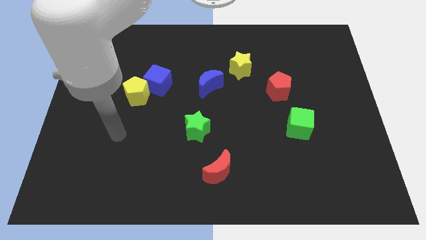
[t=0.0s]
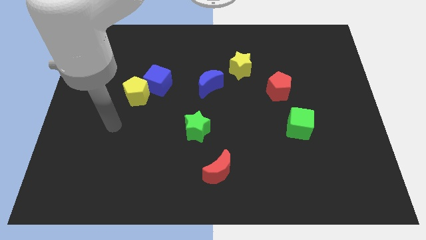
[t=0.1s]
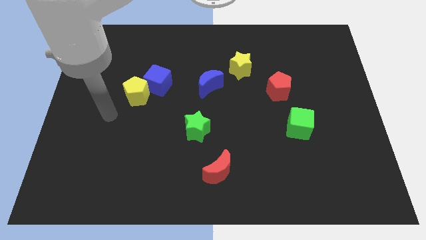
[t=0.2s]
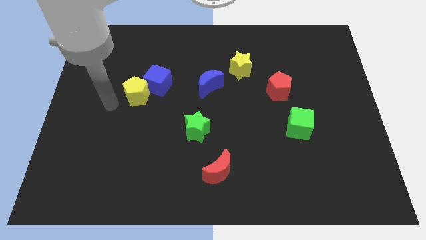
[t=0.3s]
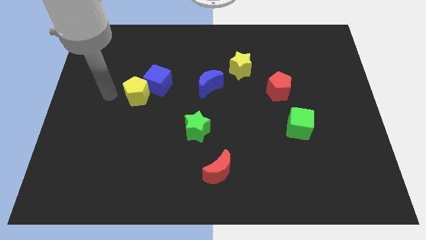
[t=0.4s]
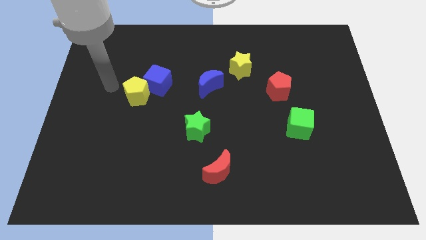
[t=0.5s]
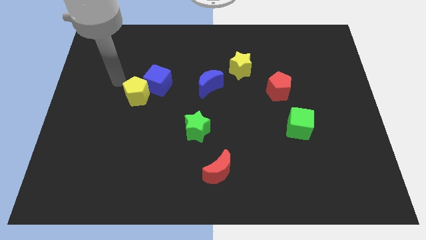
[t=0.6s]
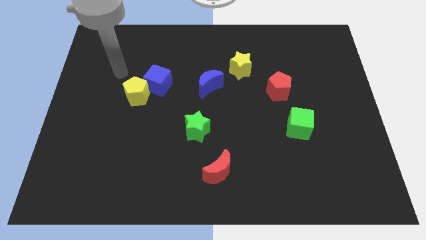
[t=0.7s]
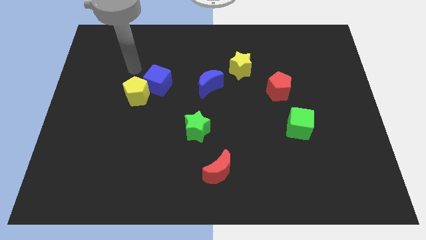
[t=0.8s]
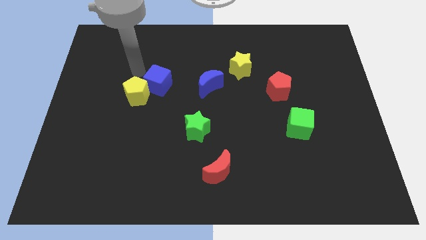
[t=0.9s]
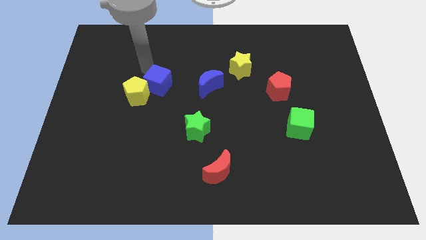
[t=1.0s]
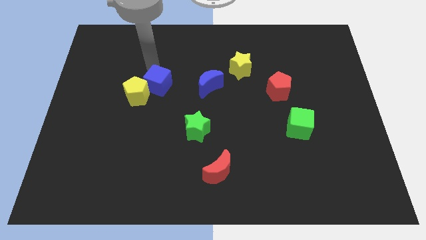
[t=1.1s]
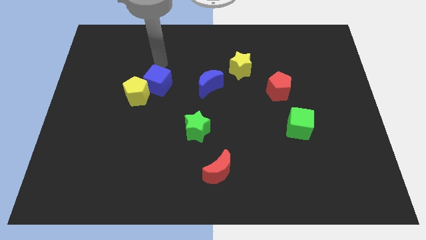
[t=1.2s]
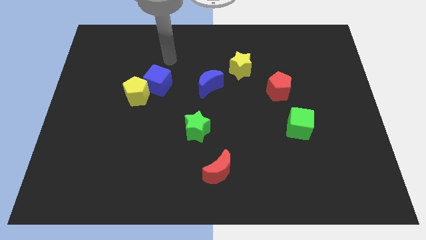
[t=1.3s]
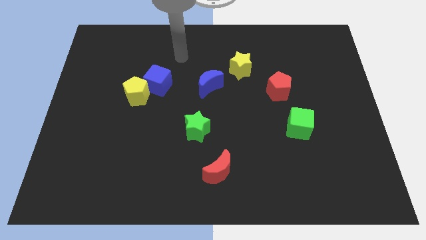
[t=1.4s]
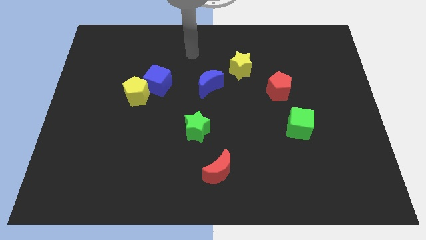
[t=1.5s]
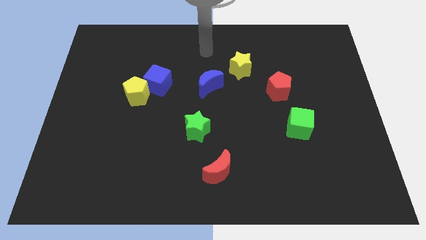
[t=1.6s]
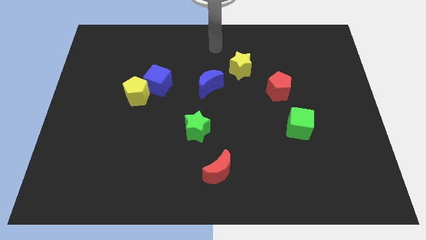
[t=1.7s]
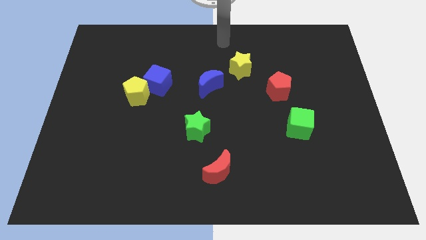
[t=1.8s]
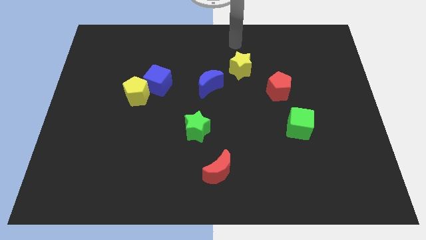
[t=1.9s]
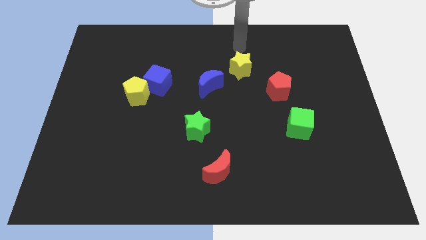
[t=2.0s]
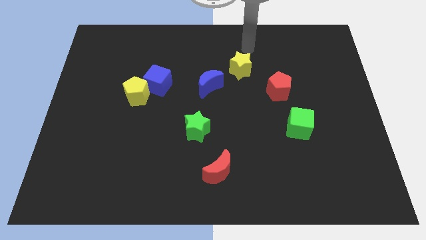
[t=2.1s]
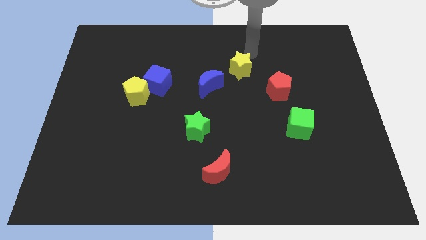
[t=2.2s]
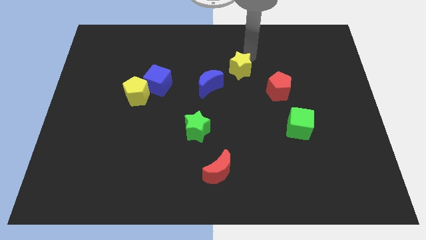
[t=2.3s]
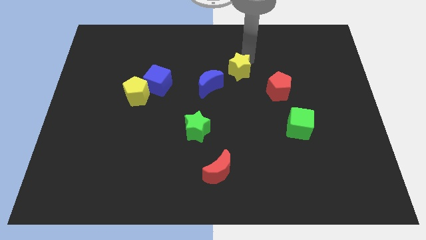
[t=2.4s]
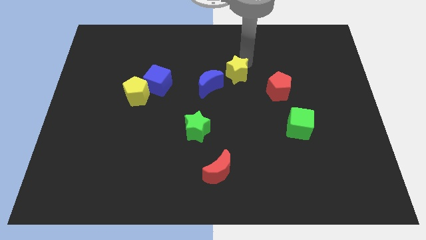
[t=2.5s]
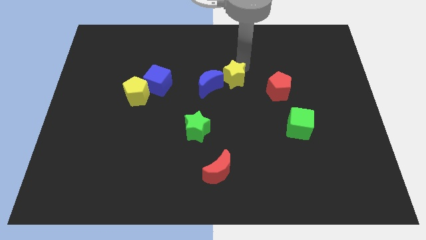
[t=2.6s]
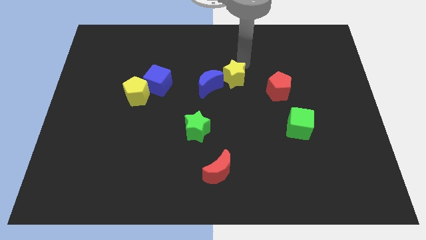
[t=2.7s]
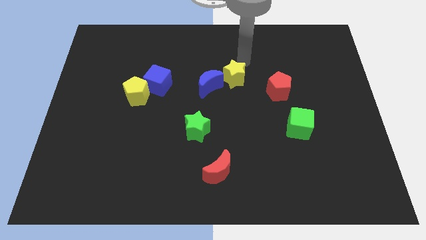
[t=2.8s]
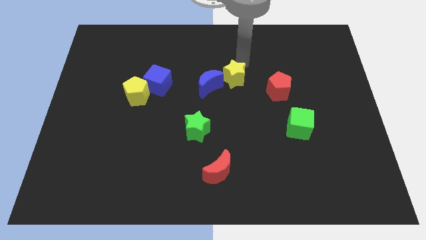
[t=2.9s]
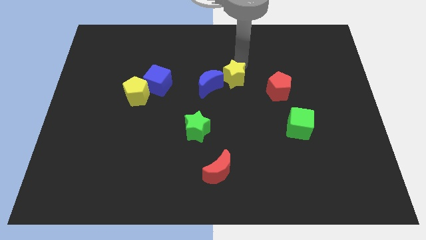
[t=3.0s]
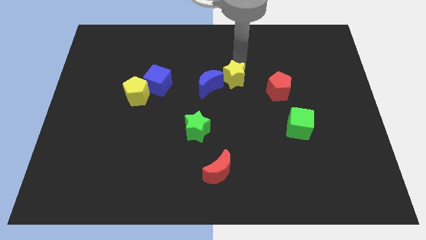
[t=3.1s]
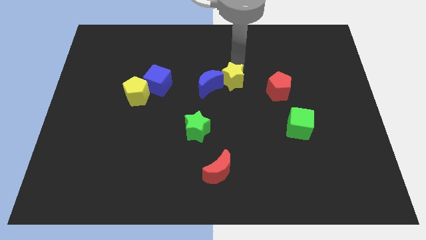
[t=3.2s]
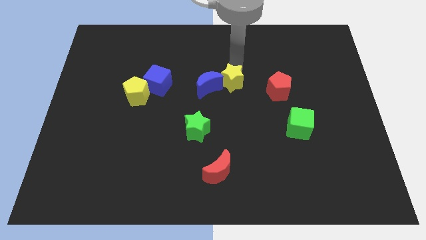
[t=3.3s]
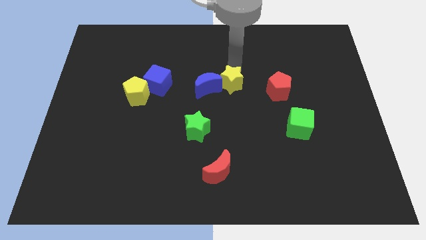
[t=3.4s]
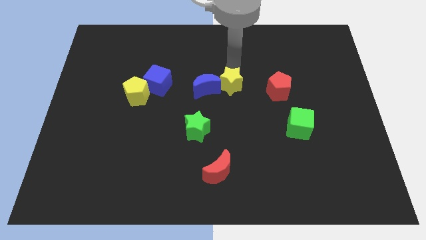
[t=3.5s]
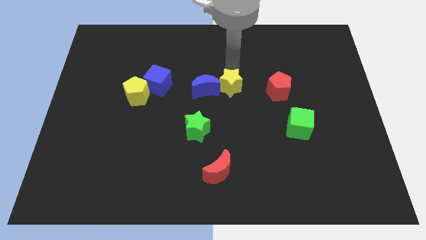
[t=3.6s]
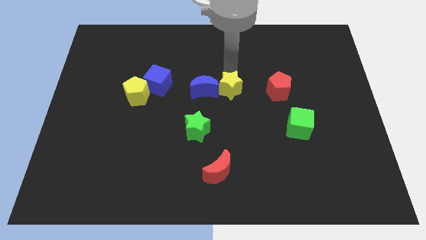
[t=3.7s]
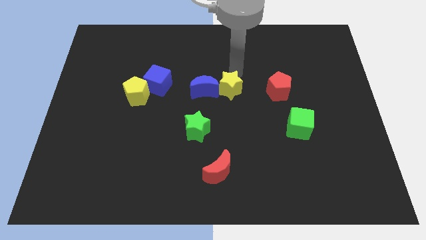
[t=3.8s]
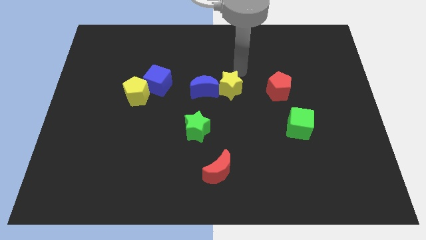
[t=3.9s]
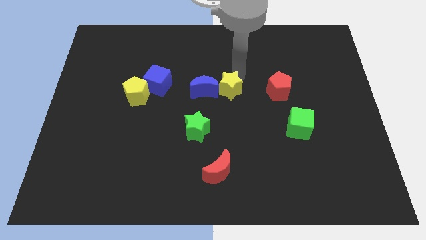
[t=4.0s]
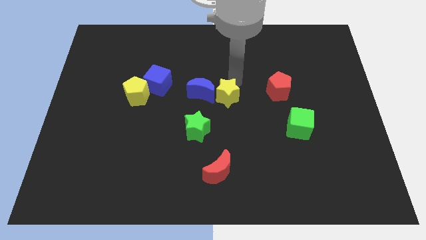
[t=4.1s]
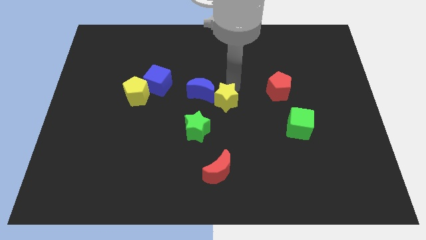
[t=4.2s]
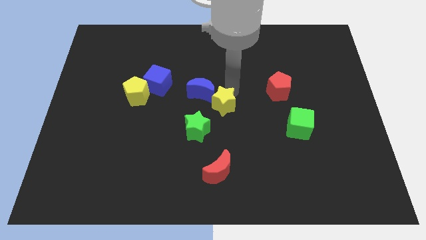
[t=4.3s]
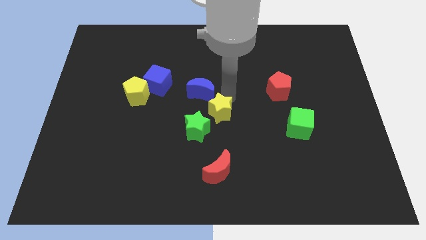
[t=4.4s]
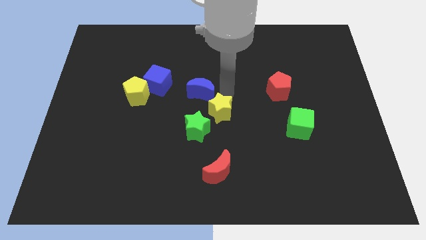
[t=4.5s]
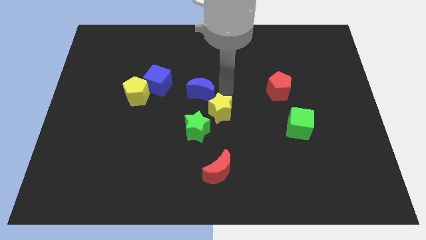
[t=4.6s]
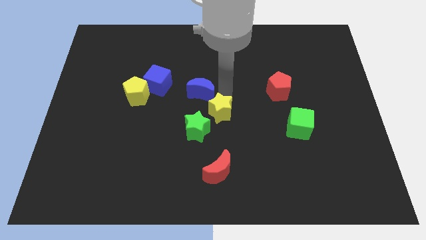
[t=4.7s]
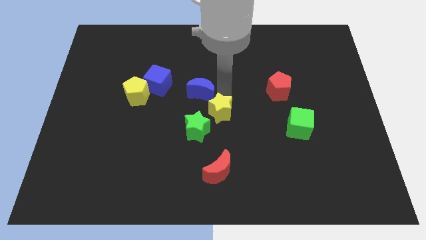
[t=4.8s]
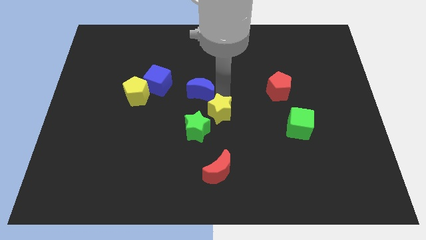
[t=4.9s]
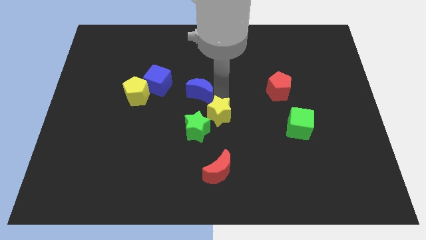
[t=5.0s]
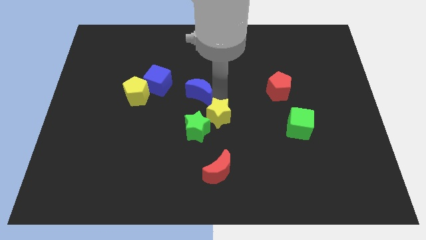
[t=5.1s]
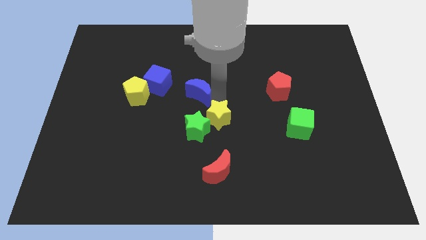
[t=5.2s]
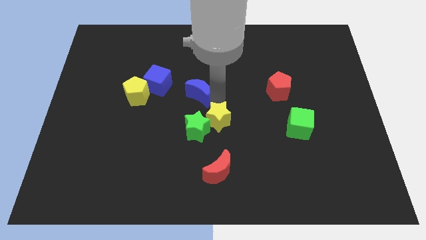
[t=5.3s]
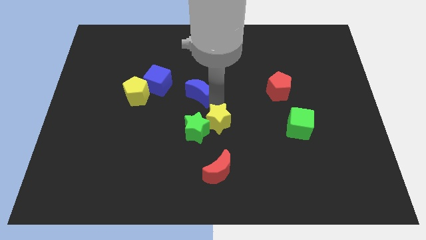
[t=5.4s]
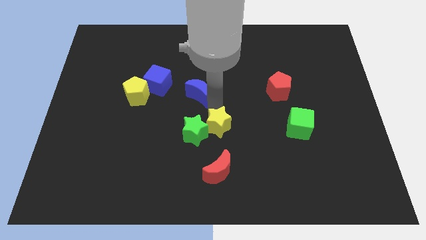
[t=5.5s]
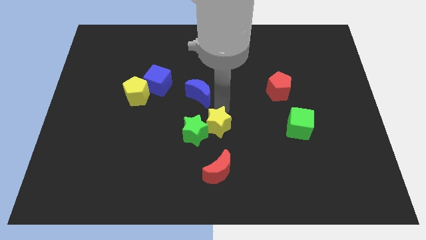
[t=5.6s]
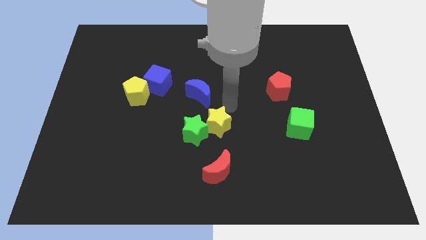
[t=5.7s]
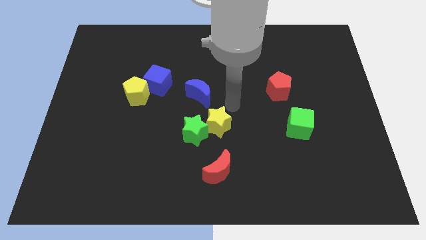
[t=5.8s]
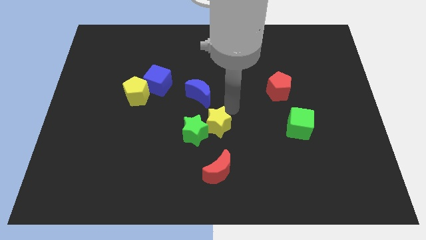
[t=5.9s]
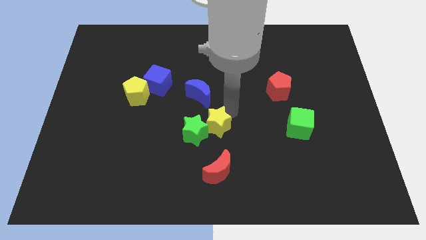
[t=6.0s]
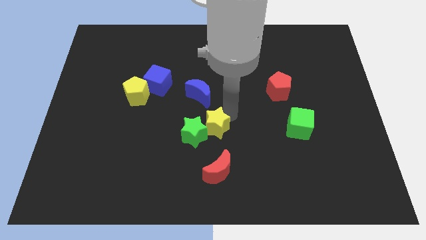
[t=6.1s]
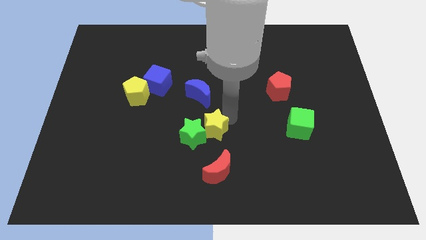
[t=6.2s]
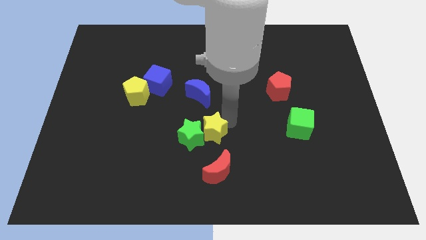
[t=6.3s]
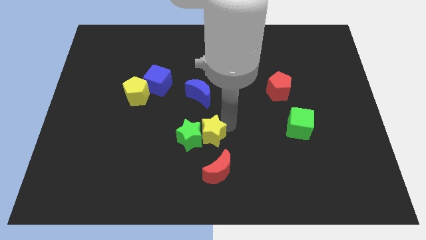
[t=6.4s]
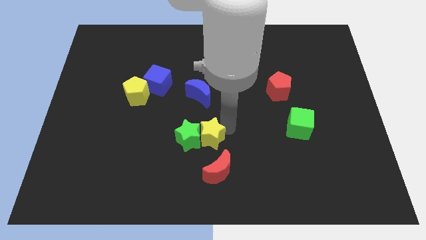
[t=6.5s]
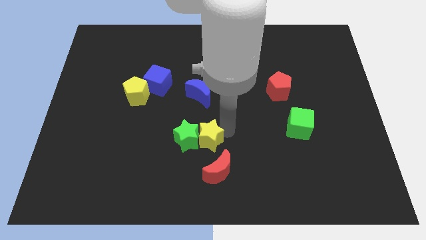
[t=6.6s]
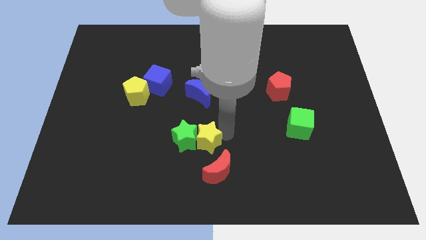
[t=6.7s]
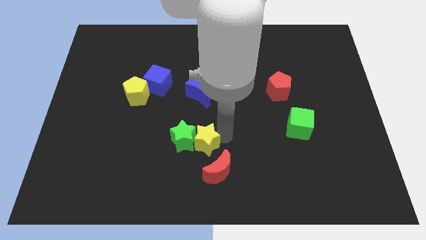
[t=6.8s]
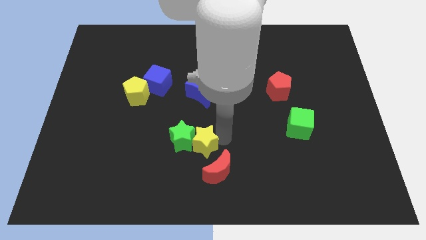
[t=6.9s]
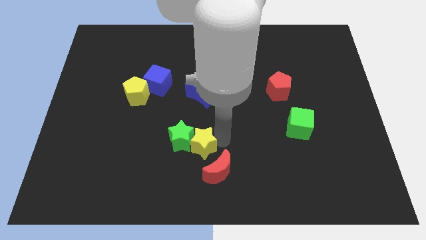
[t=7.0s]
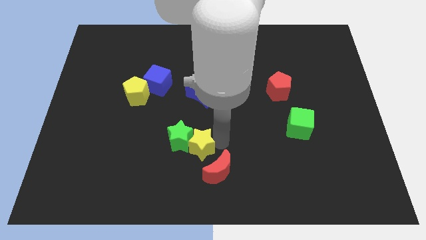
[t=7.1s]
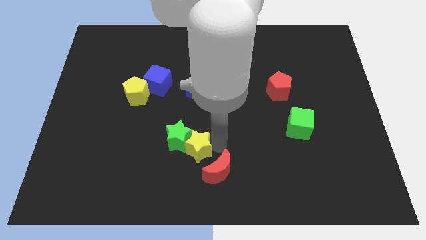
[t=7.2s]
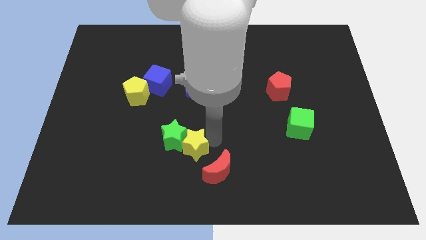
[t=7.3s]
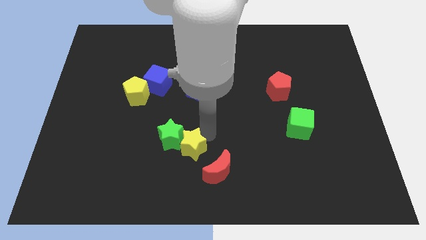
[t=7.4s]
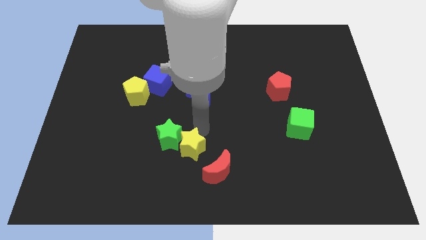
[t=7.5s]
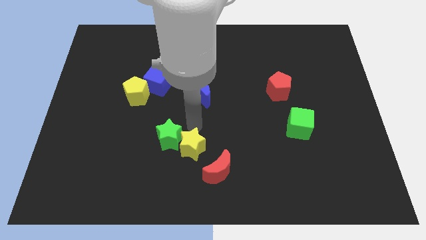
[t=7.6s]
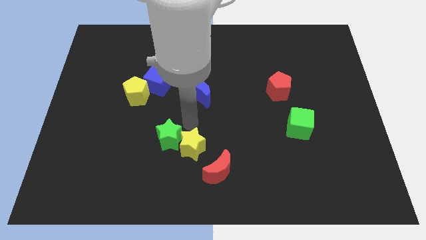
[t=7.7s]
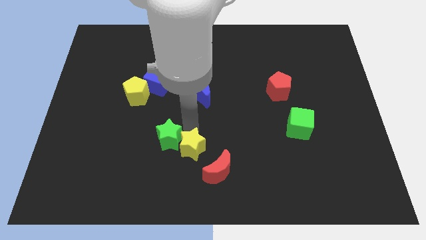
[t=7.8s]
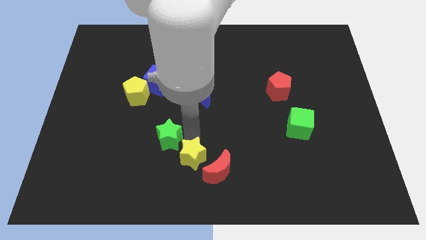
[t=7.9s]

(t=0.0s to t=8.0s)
move the yellow star to the bottom side
